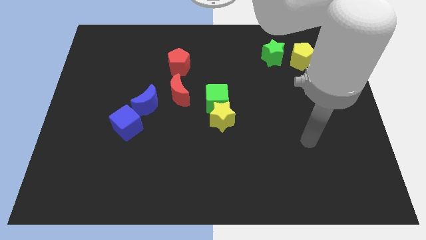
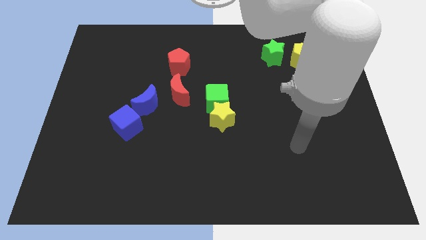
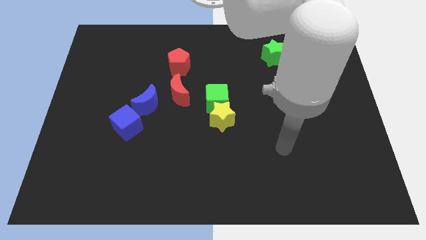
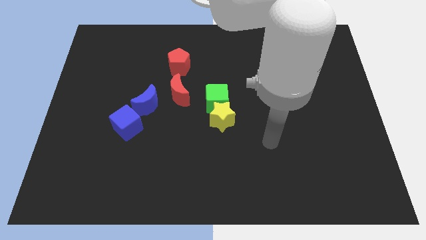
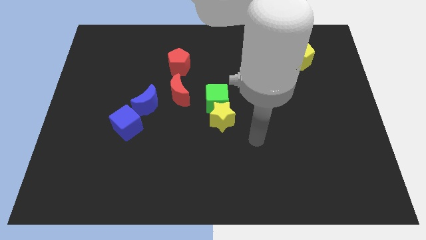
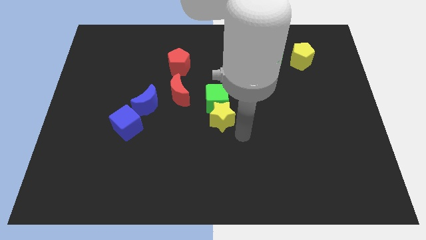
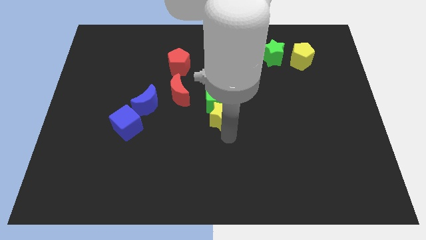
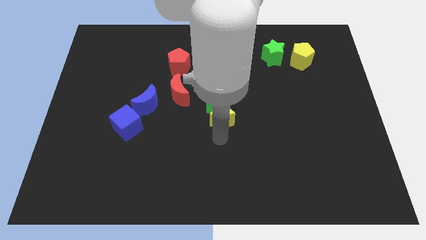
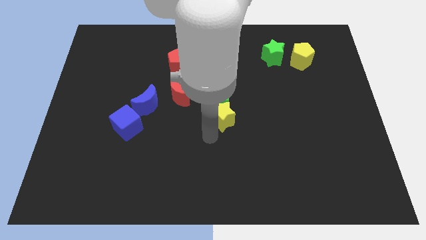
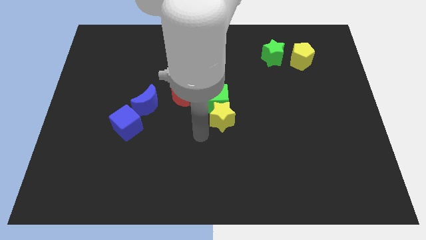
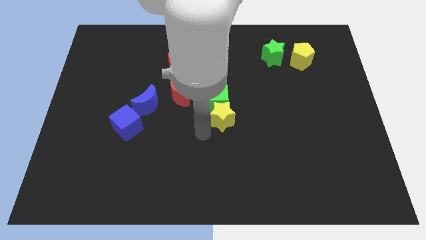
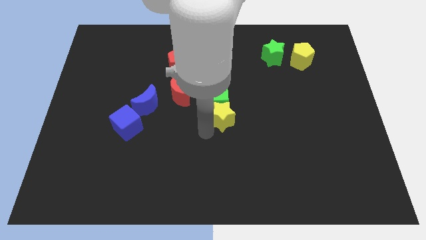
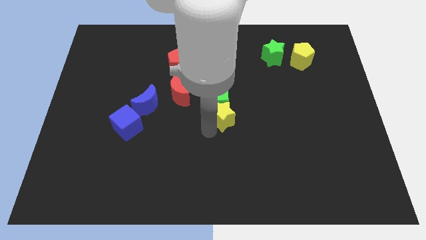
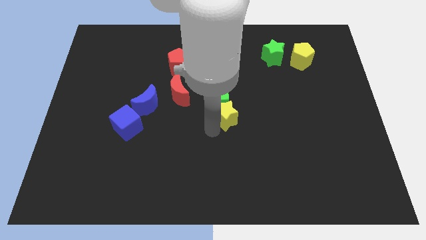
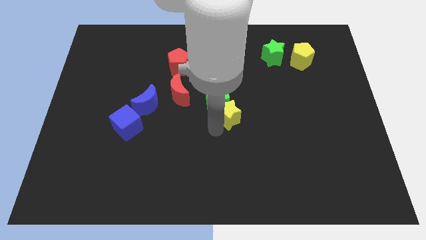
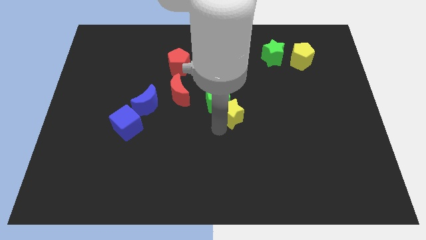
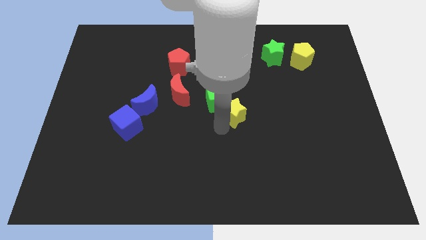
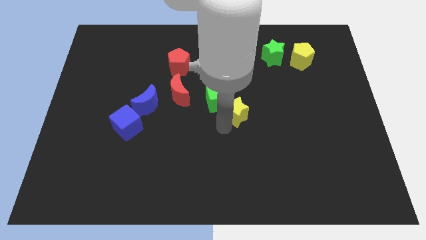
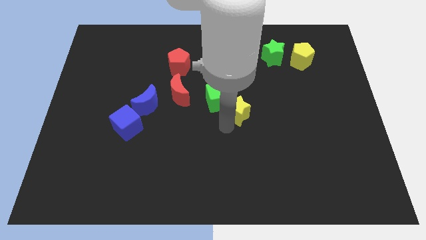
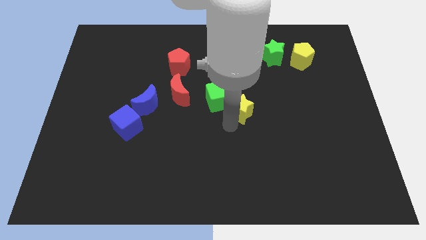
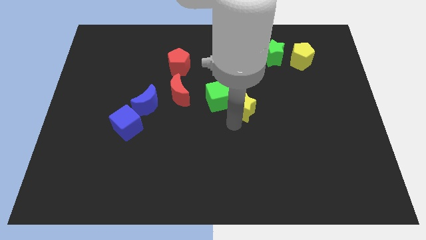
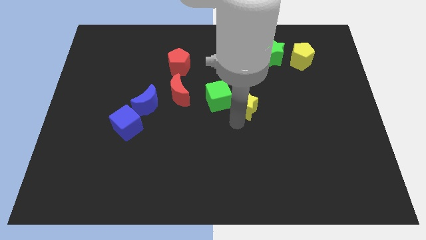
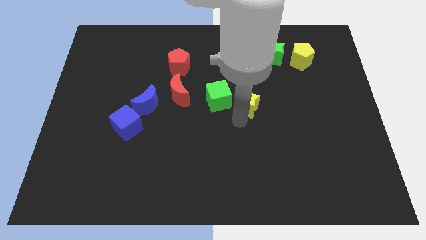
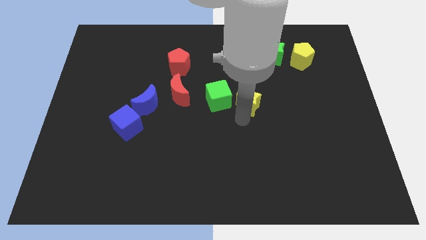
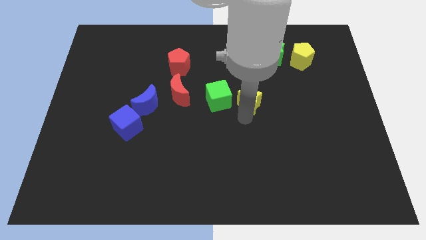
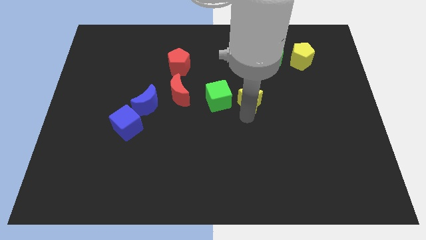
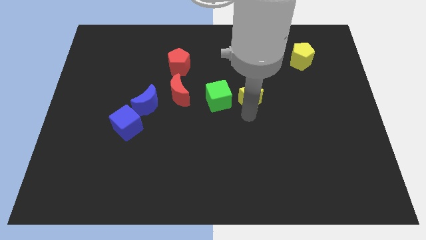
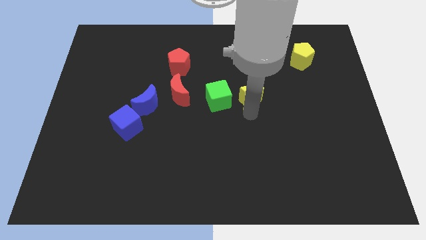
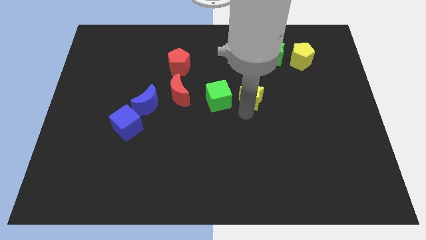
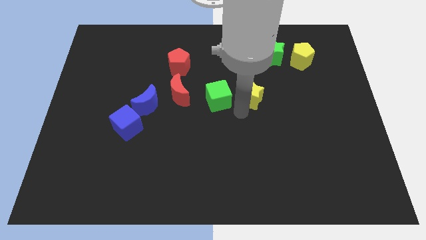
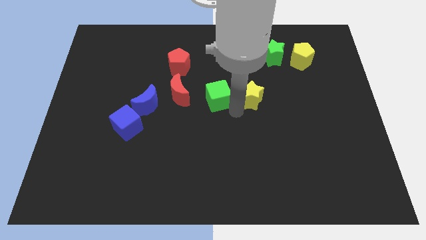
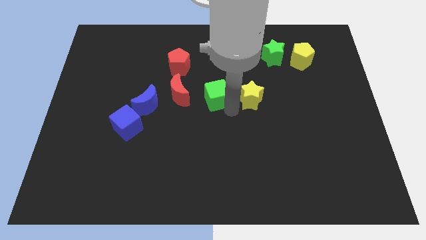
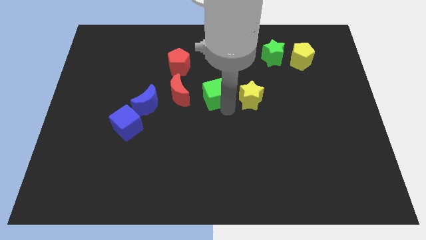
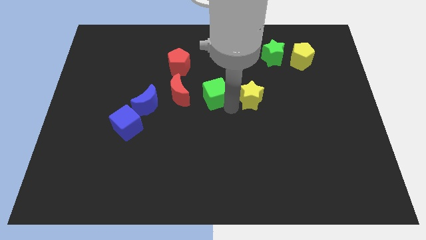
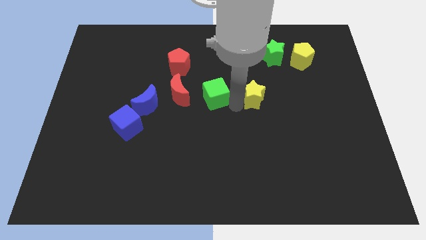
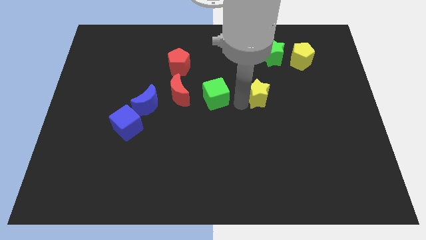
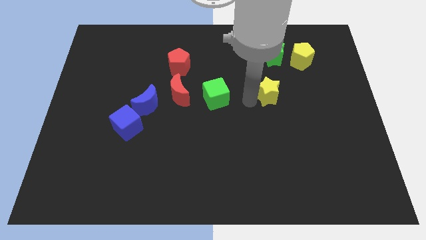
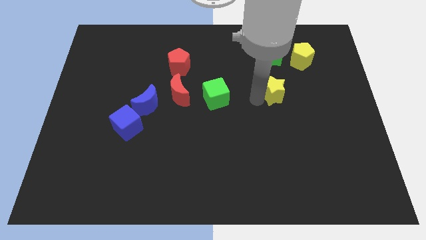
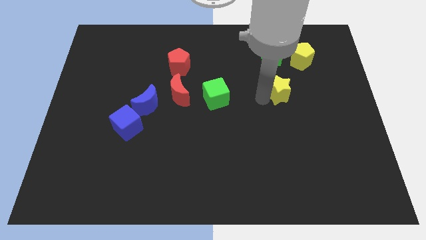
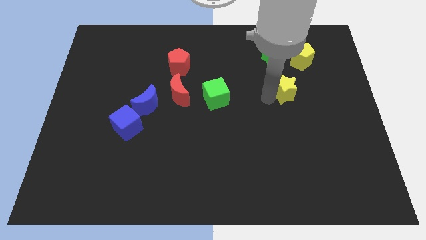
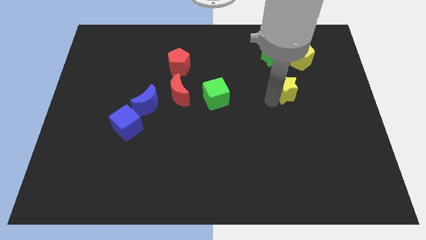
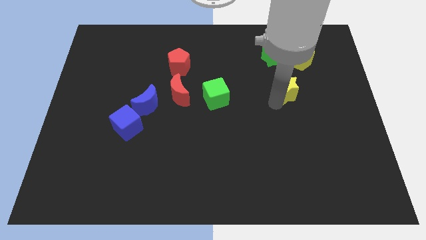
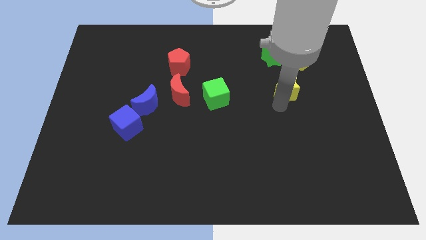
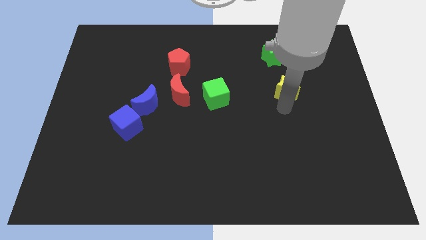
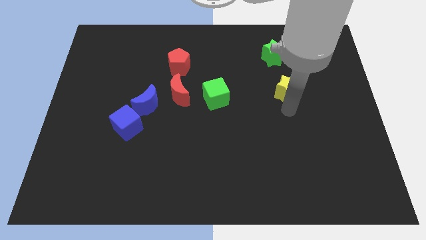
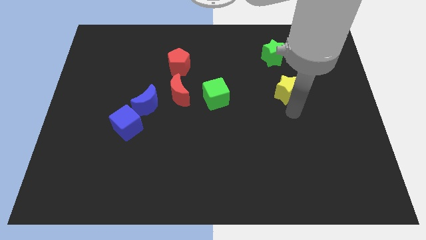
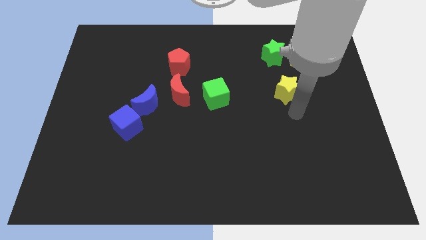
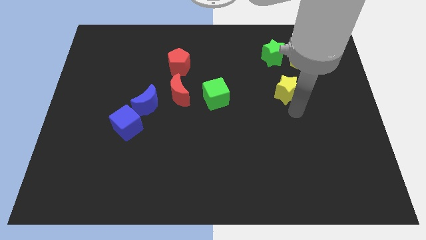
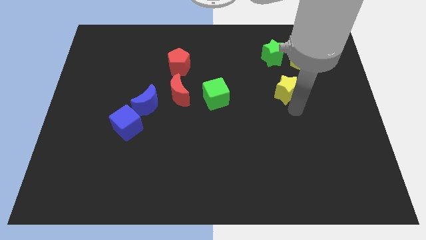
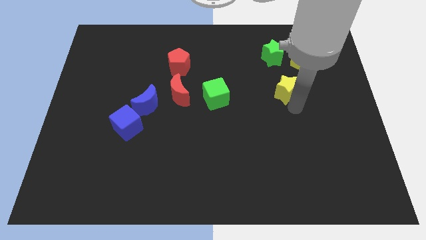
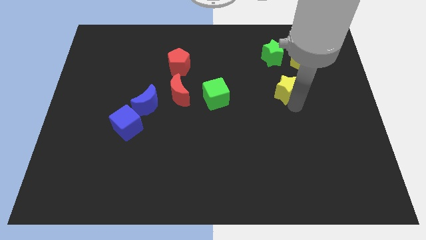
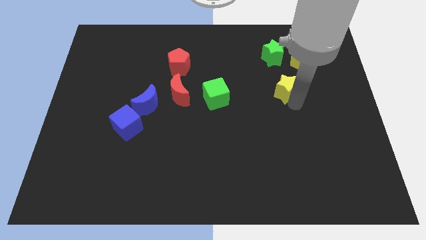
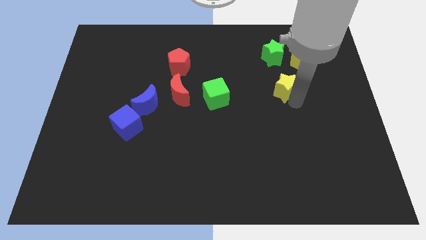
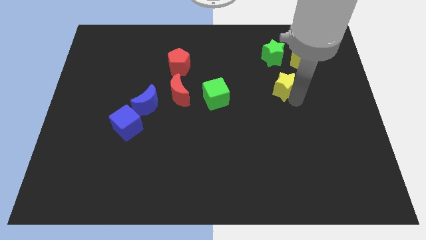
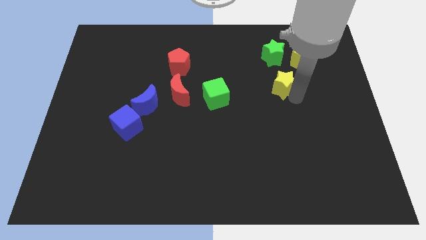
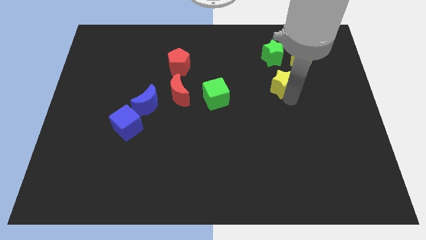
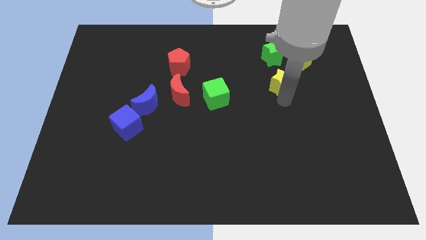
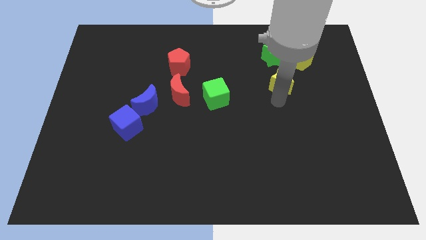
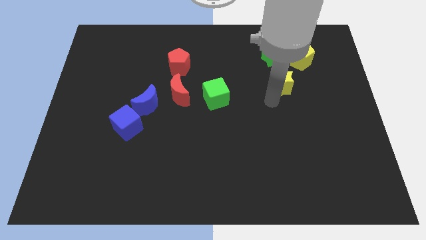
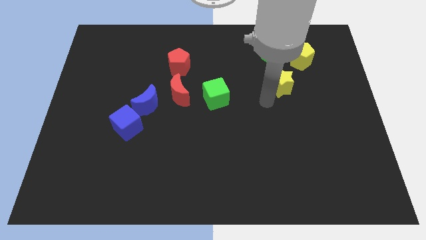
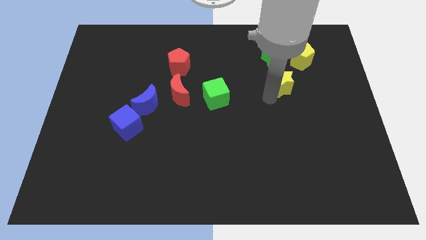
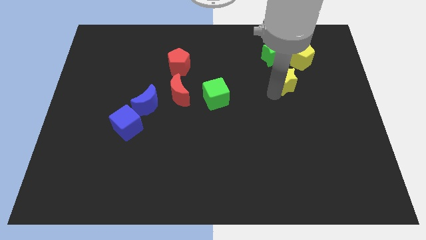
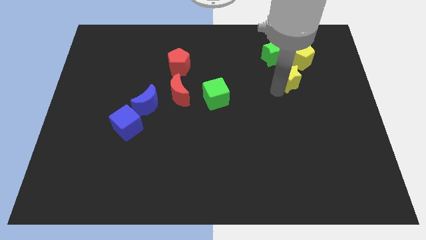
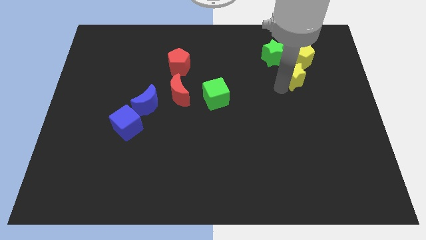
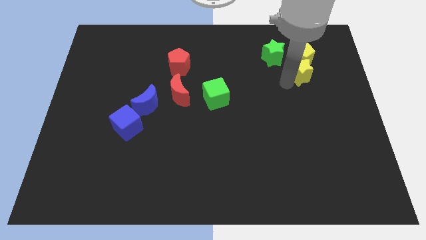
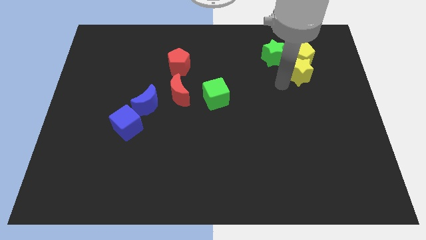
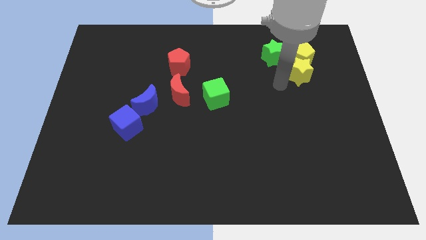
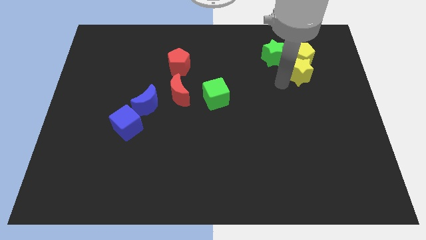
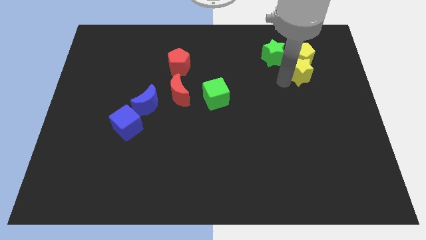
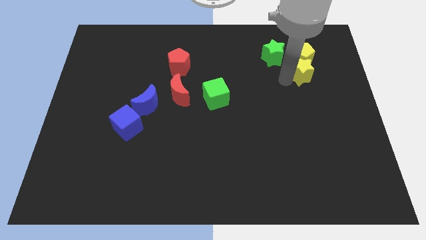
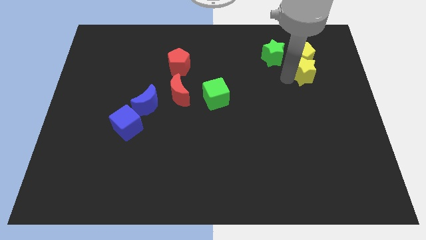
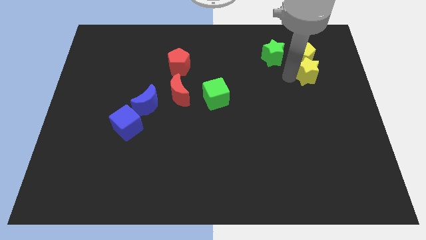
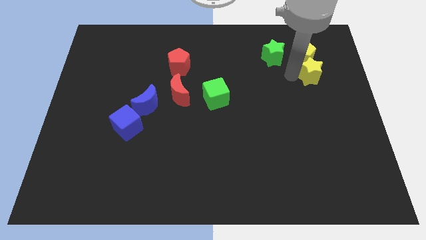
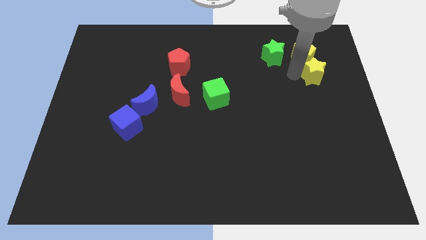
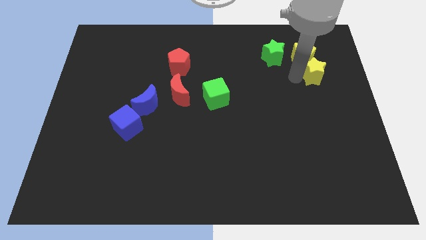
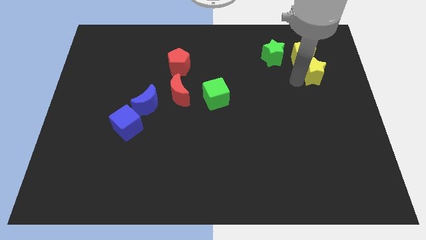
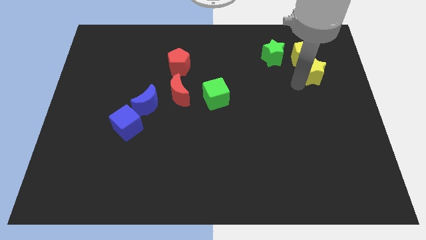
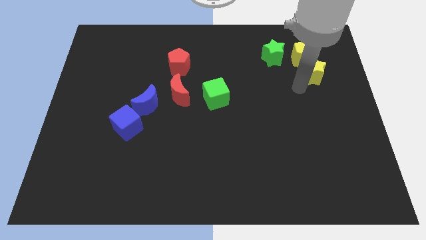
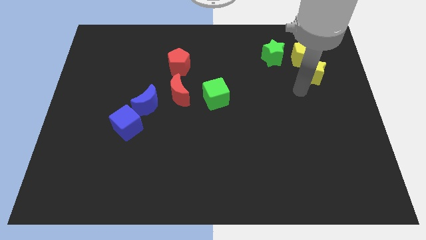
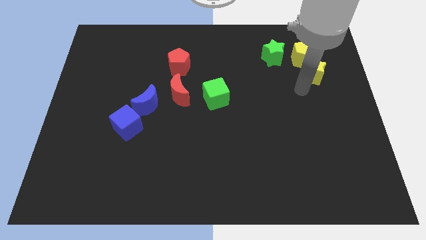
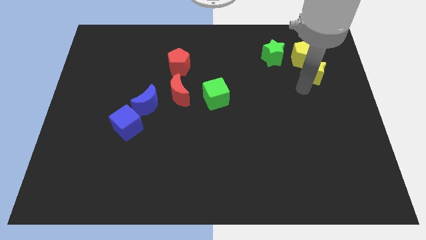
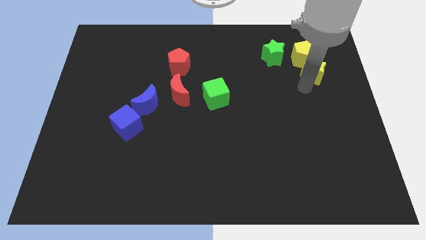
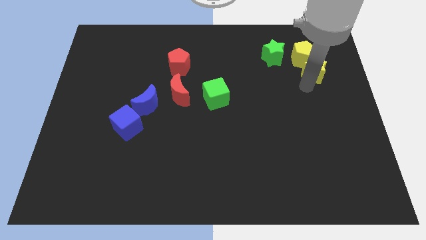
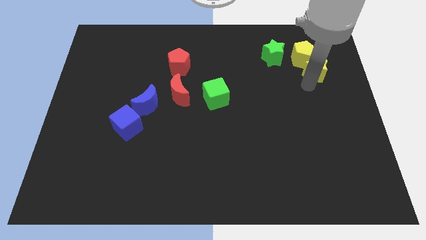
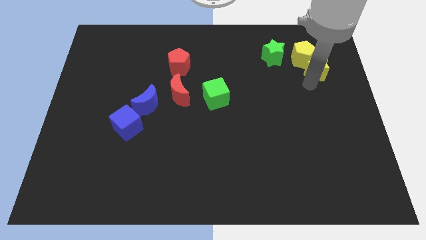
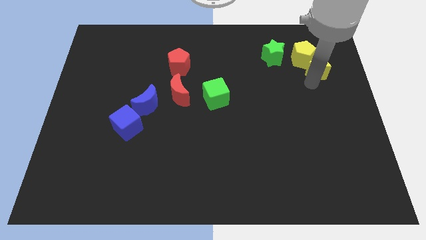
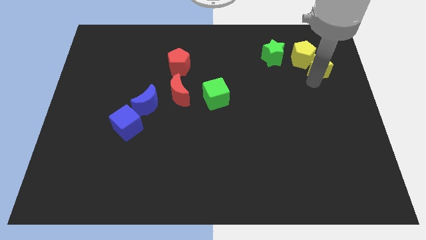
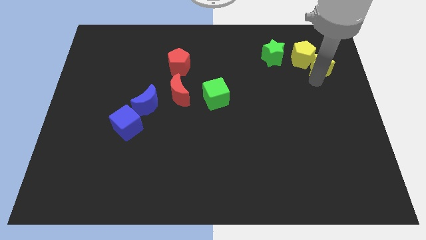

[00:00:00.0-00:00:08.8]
slide the yellow star to the right of the green star
